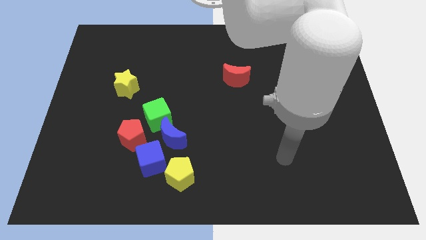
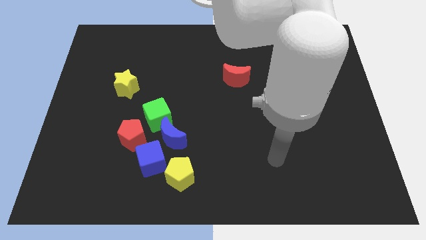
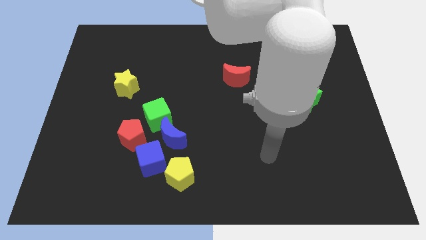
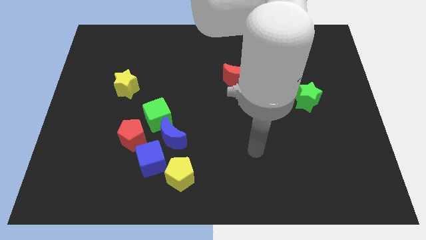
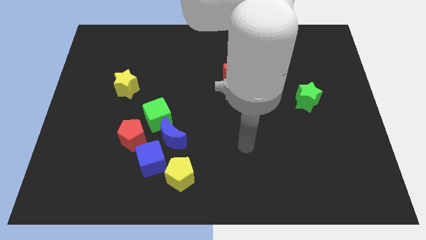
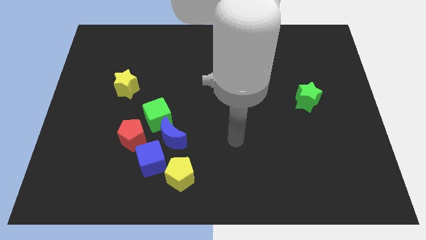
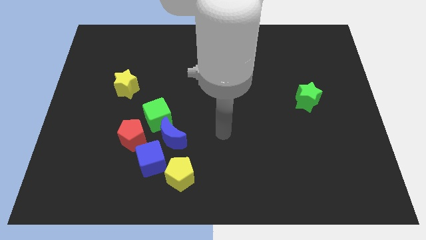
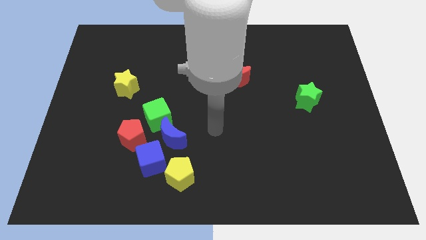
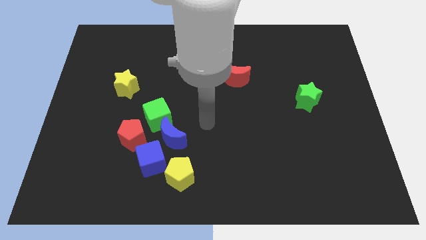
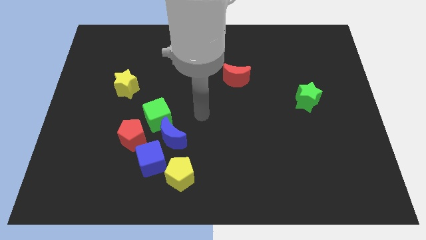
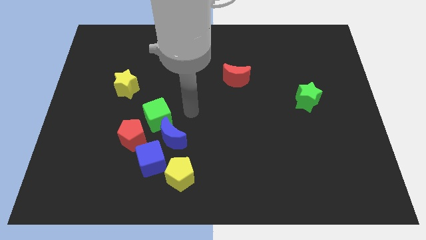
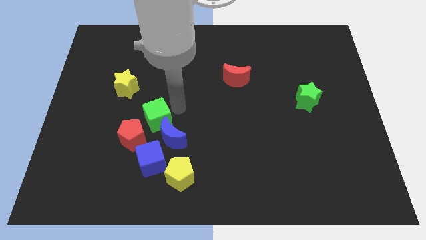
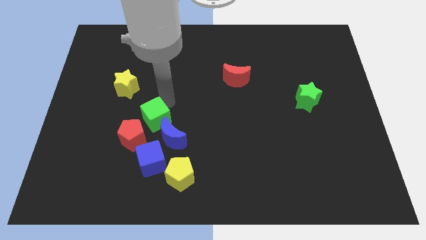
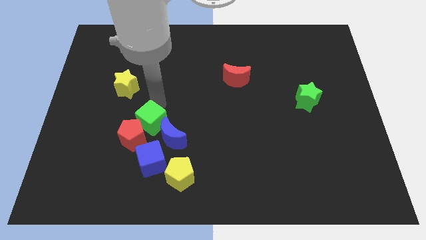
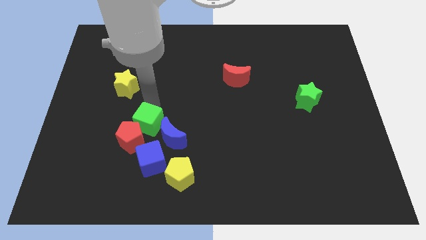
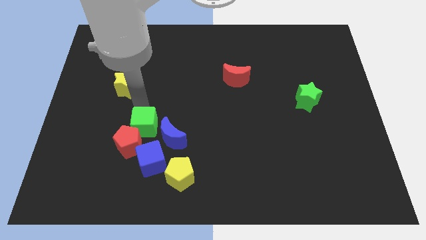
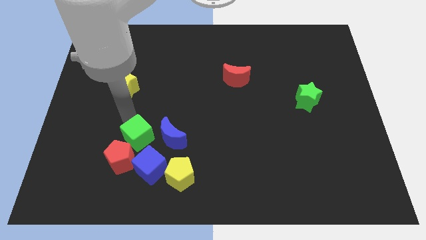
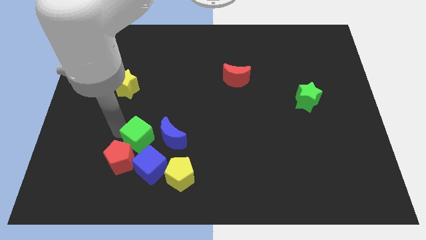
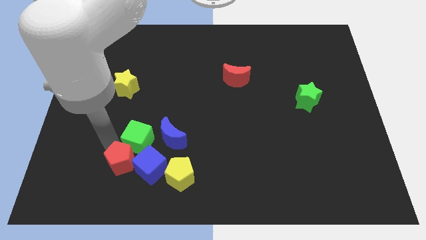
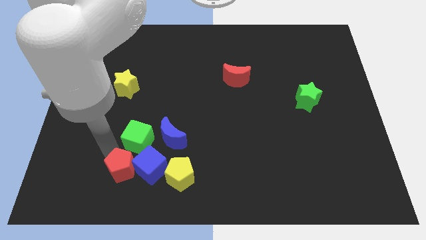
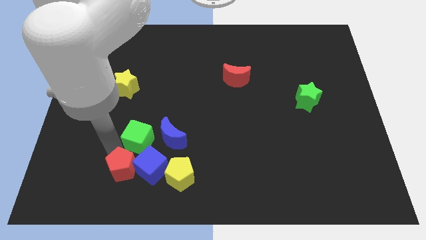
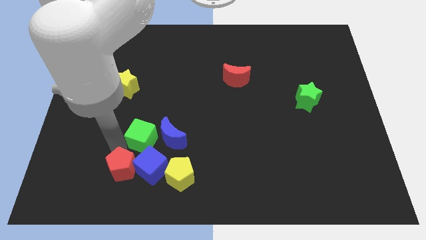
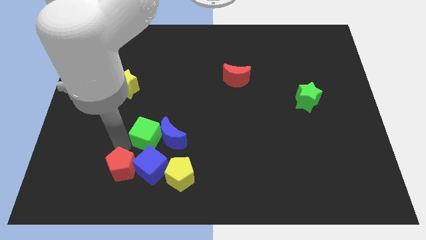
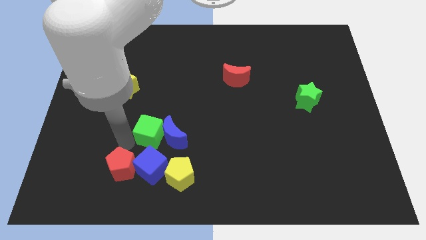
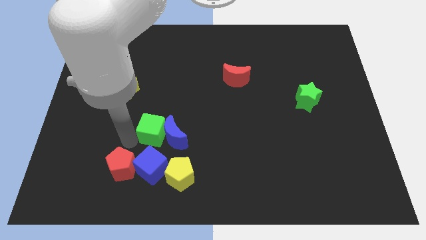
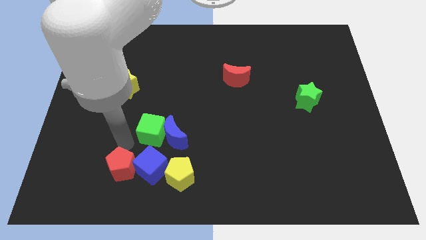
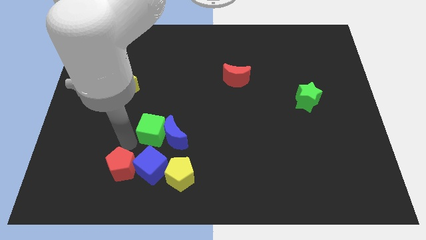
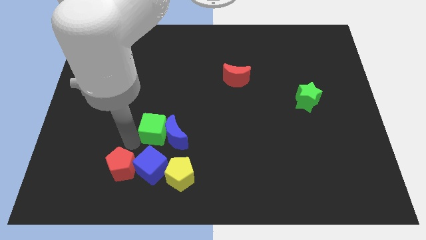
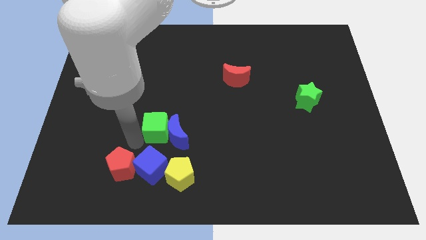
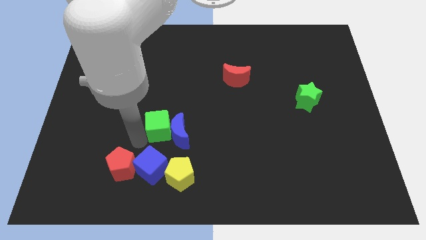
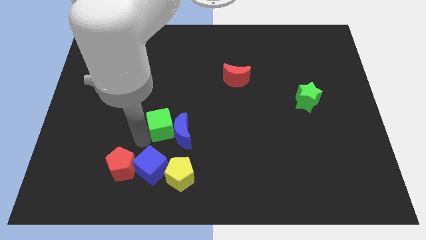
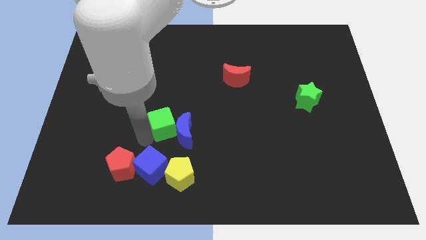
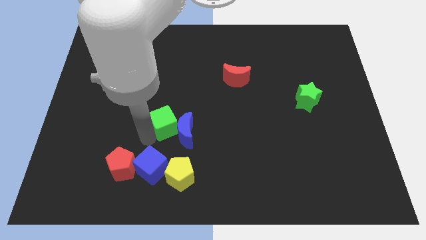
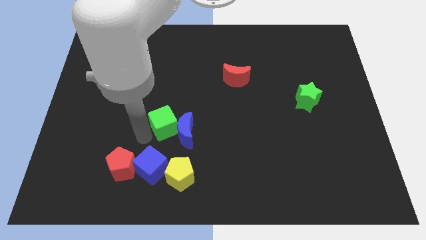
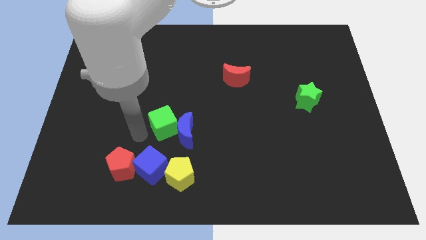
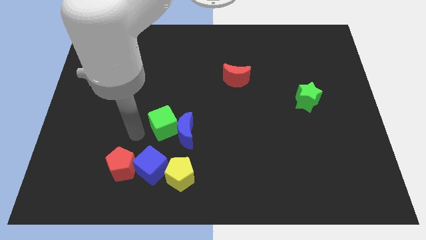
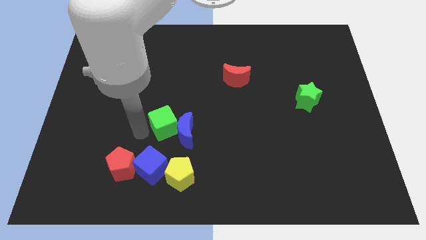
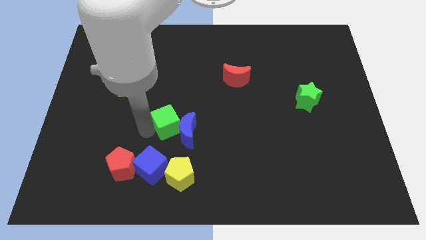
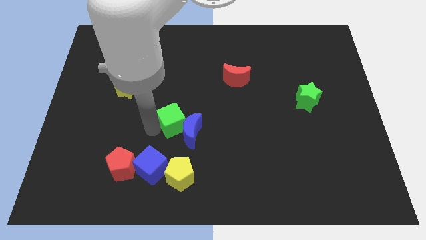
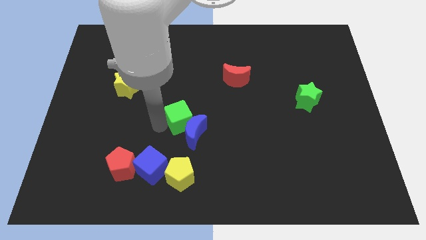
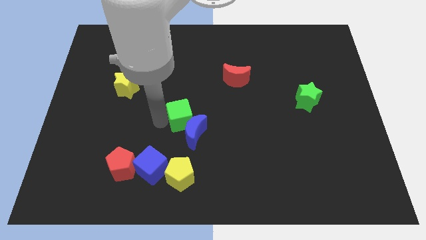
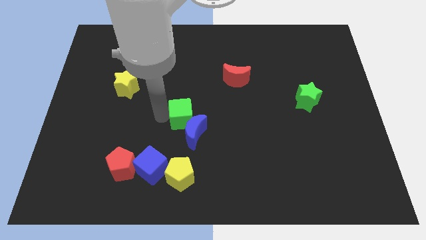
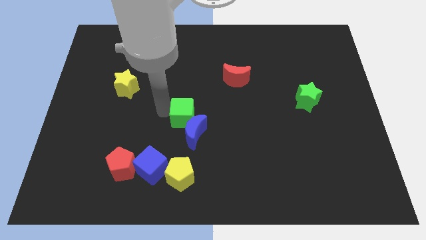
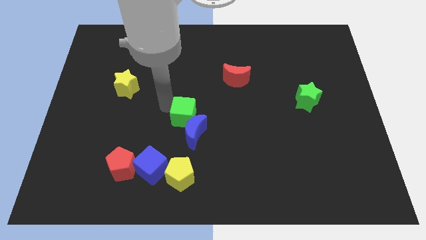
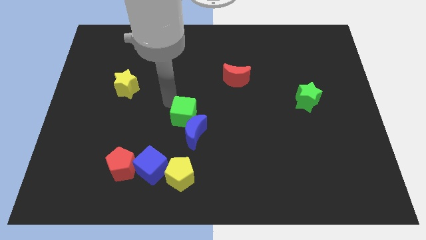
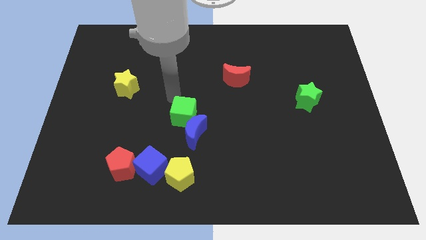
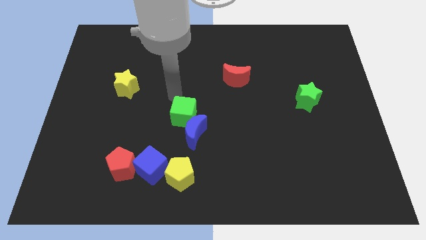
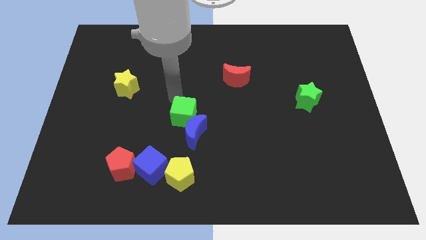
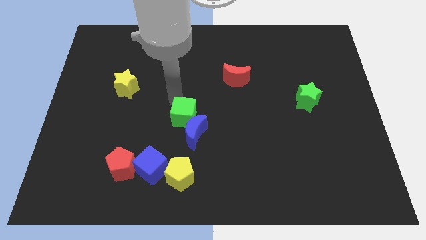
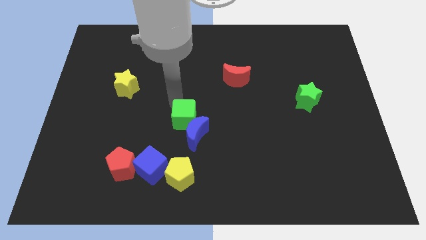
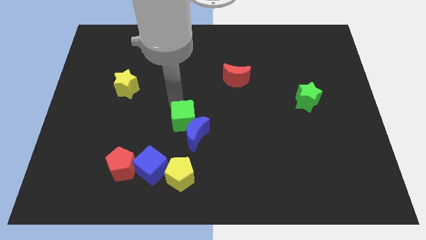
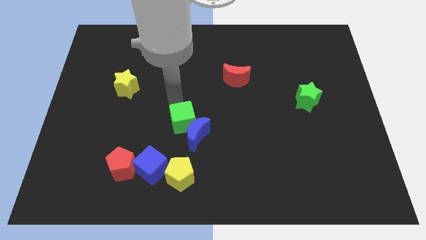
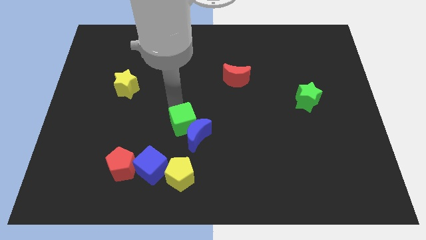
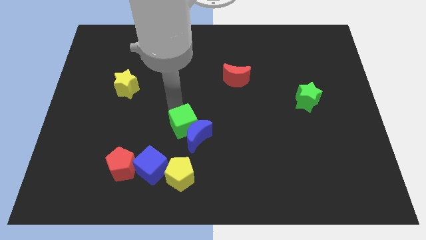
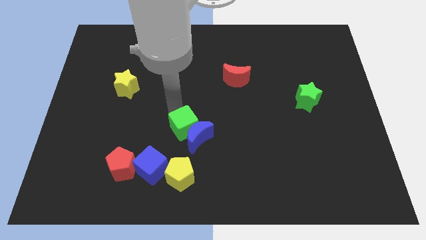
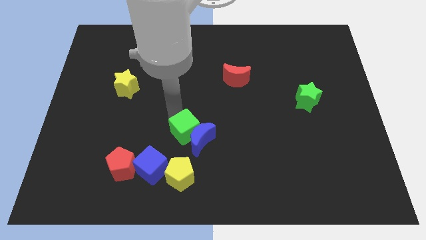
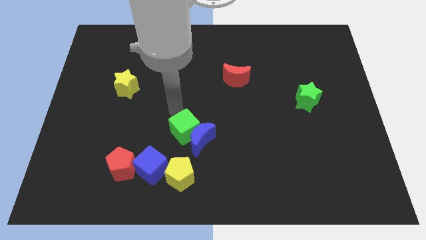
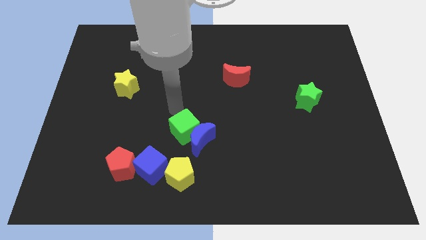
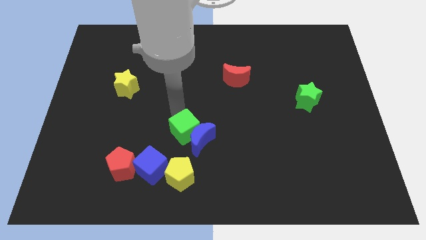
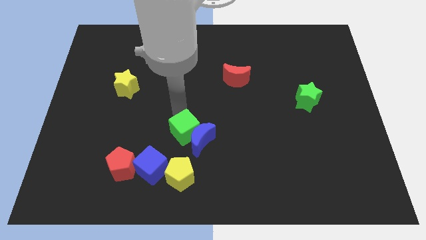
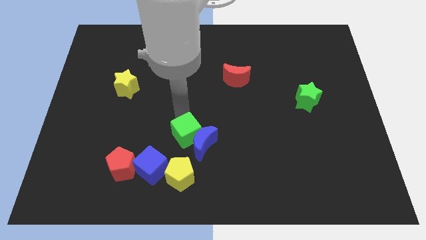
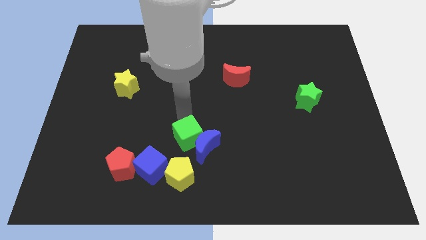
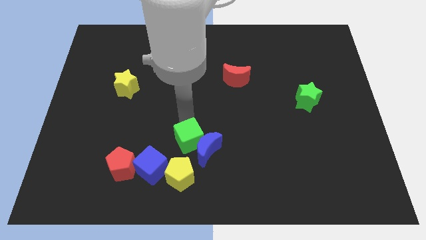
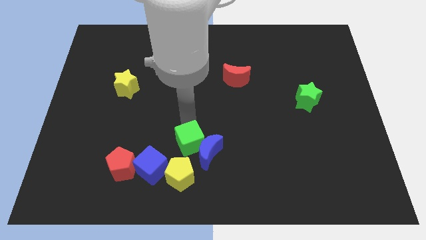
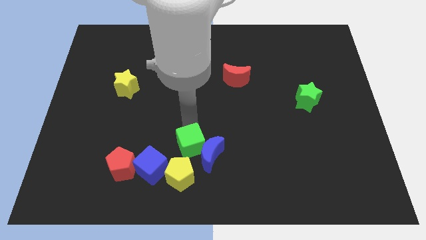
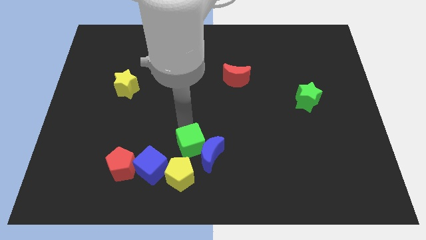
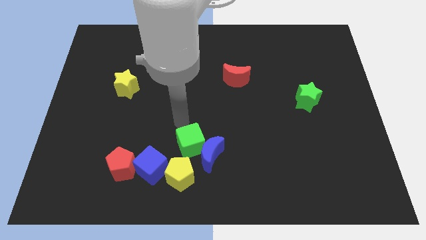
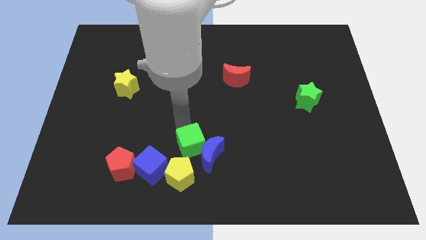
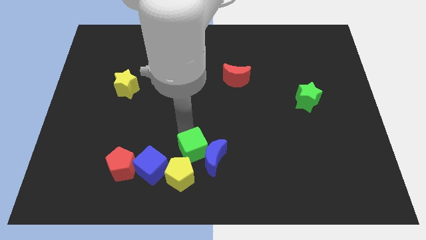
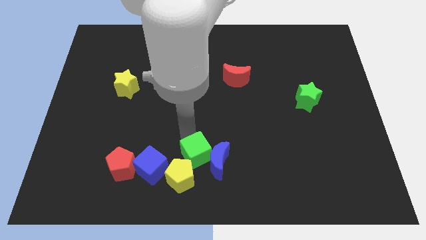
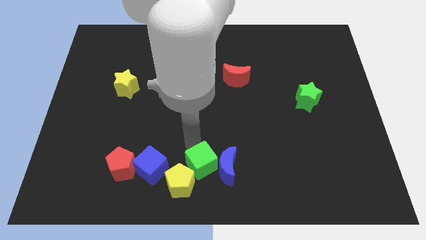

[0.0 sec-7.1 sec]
slide the green cube to the bottom side

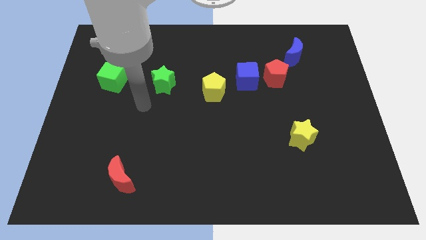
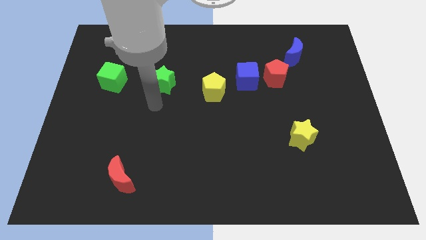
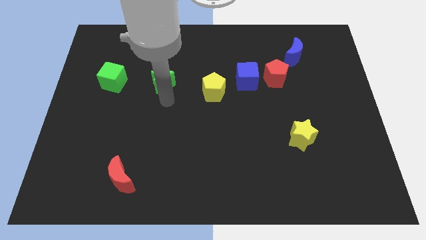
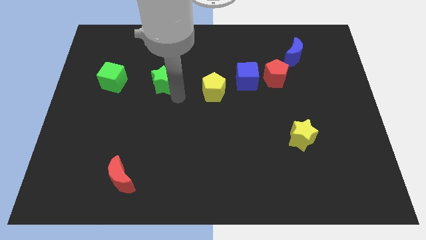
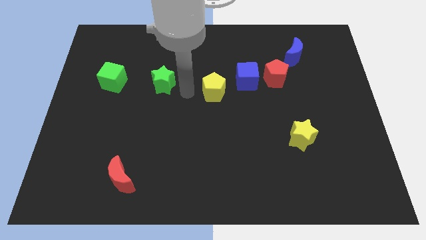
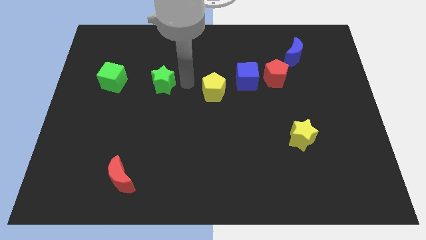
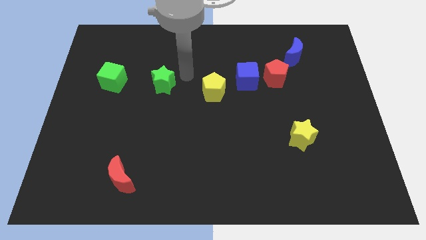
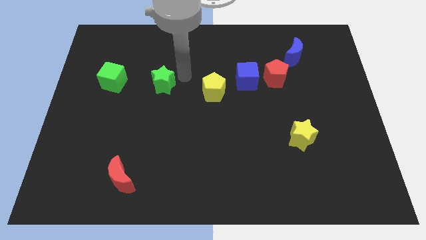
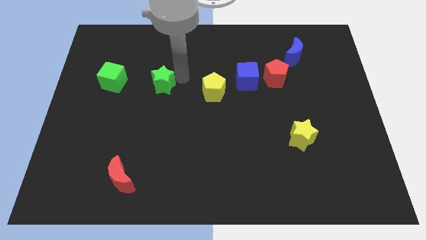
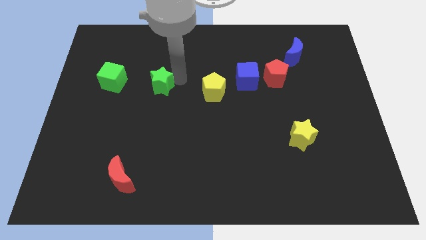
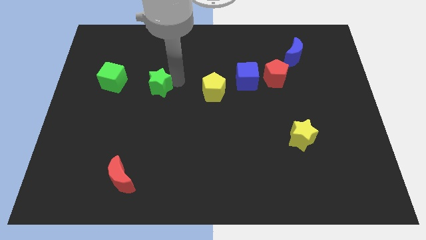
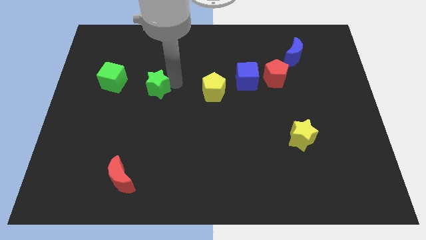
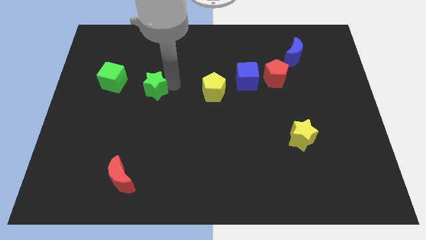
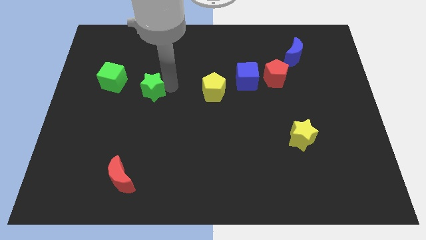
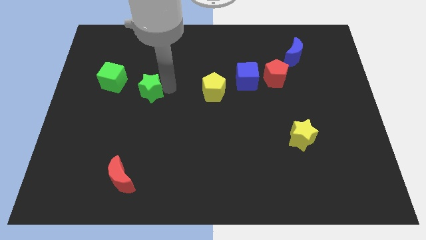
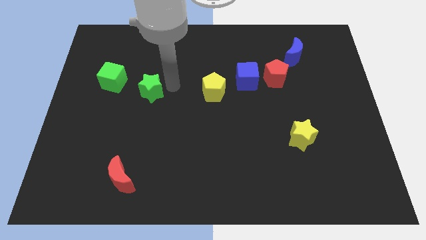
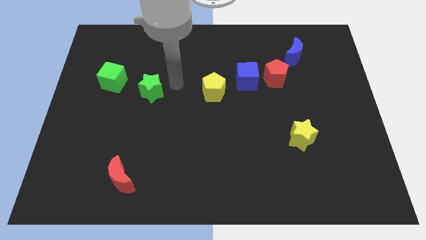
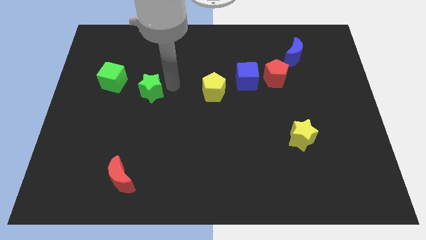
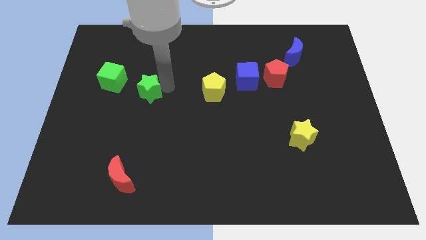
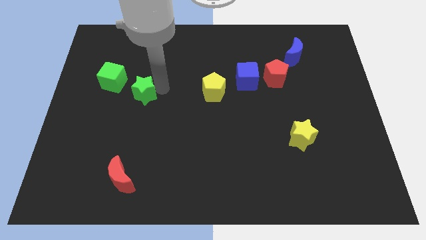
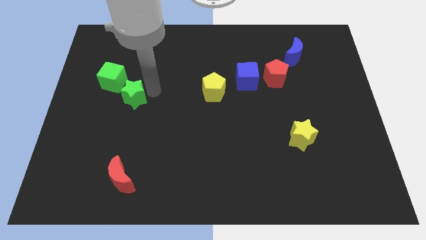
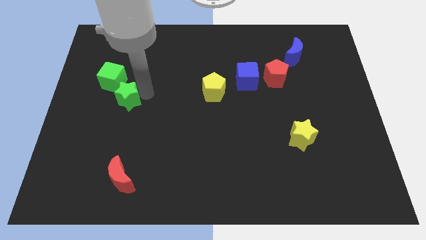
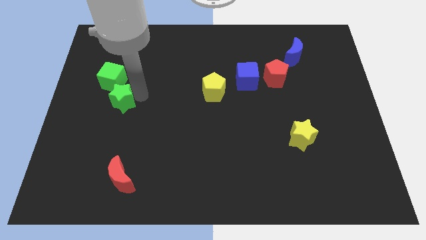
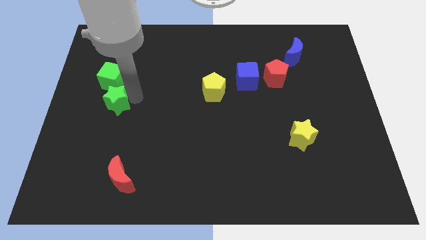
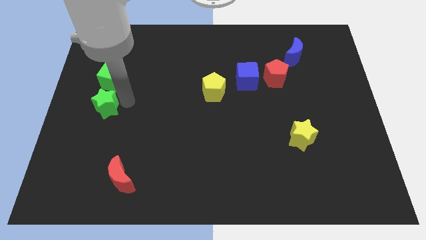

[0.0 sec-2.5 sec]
put the green star to the center left
